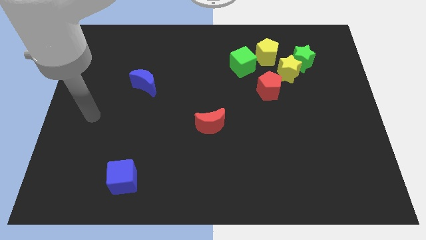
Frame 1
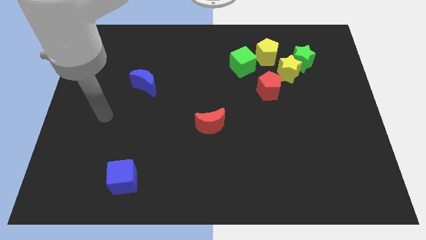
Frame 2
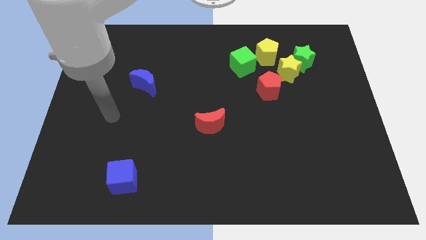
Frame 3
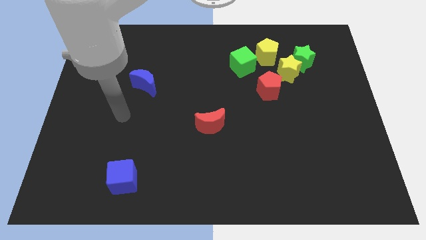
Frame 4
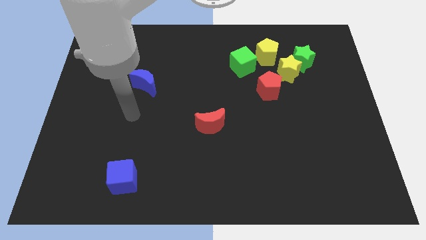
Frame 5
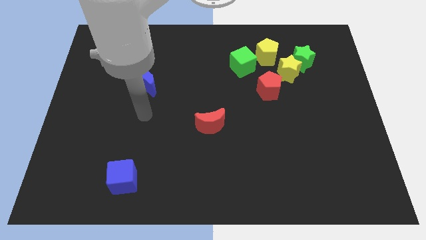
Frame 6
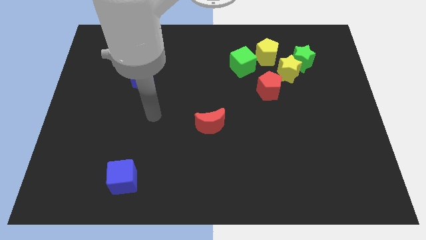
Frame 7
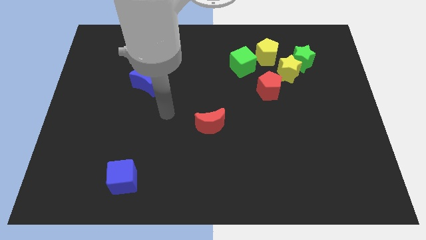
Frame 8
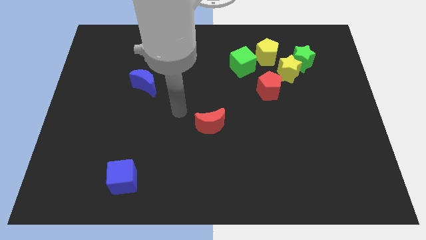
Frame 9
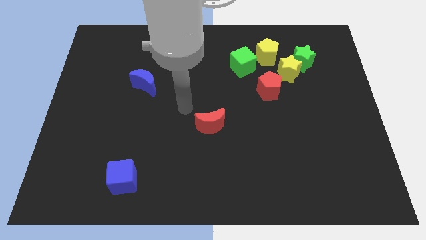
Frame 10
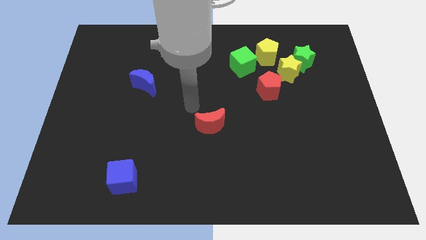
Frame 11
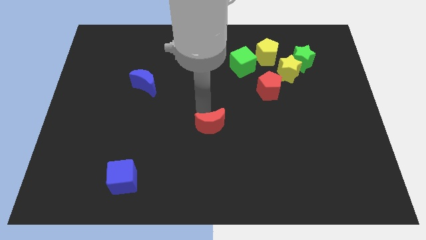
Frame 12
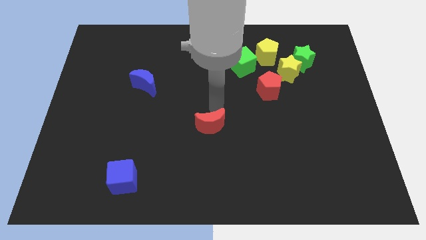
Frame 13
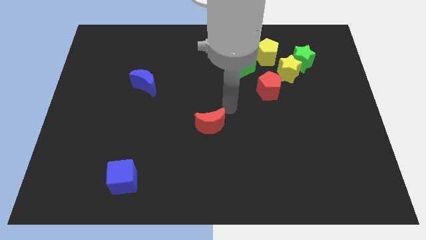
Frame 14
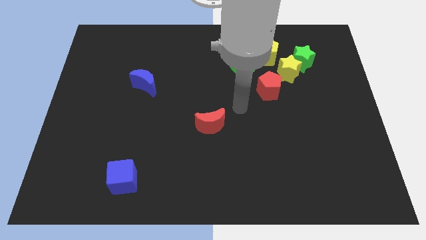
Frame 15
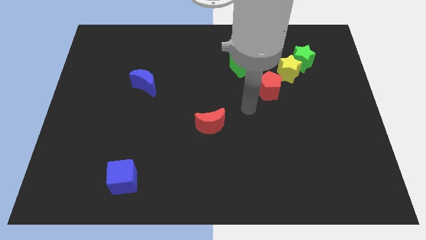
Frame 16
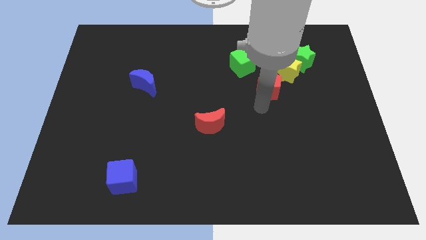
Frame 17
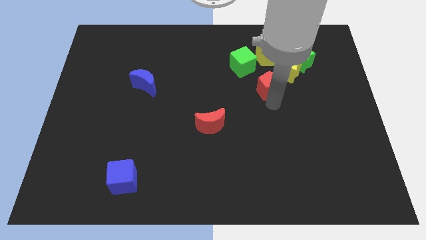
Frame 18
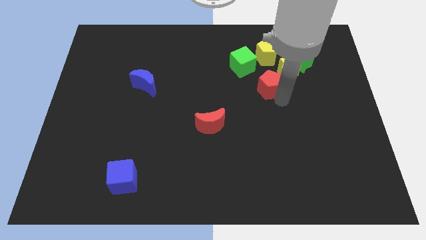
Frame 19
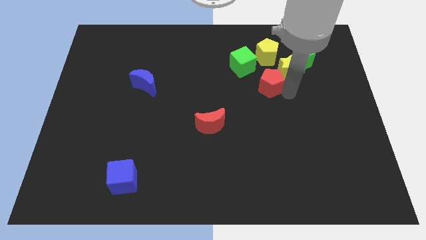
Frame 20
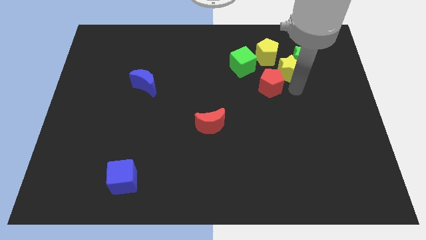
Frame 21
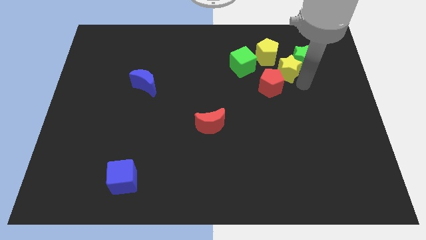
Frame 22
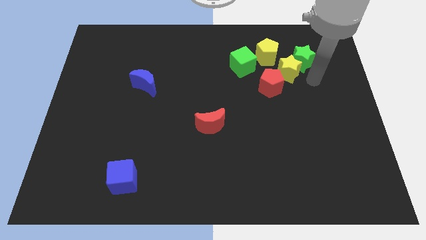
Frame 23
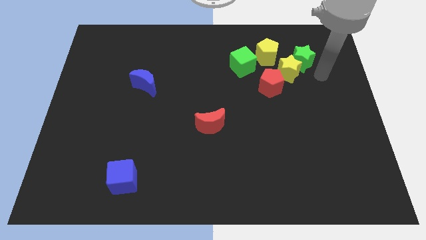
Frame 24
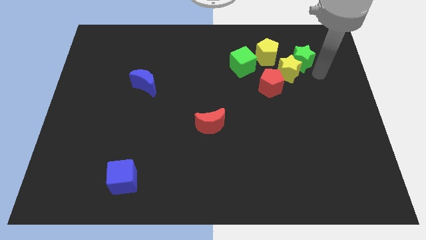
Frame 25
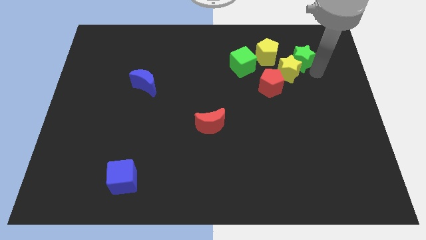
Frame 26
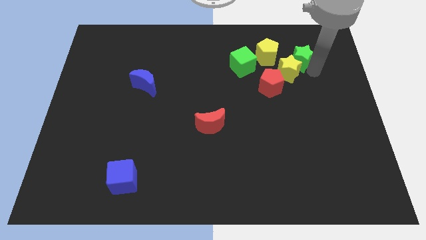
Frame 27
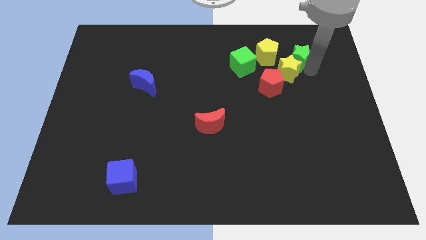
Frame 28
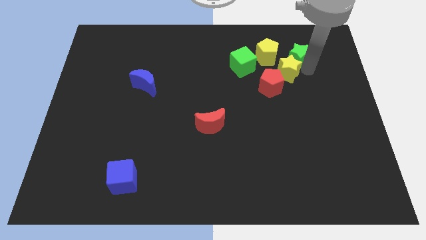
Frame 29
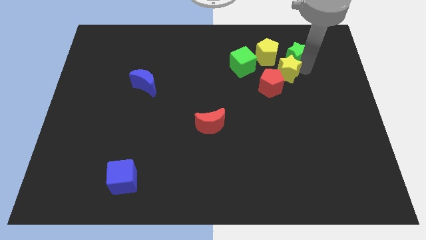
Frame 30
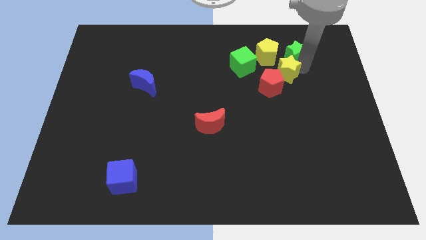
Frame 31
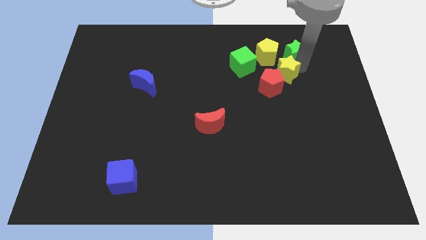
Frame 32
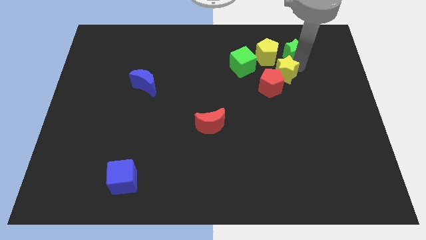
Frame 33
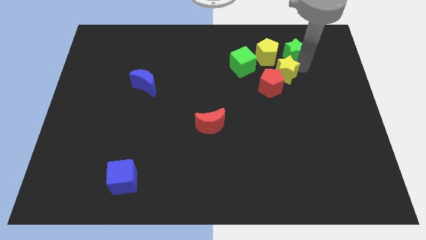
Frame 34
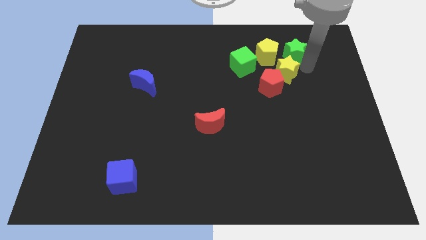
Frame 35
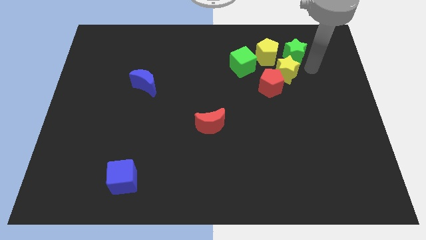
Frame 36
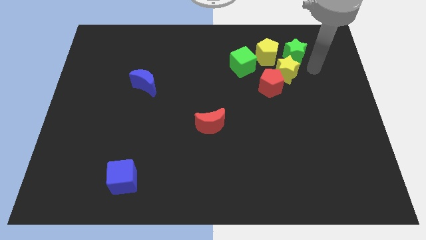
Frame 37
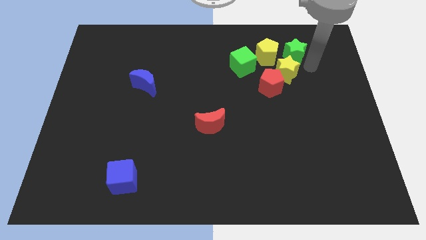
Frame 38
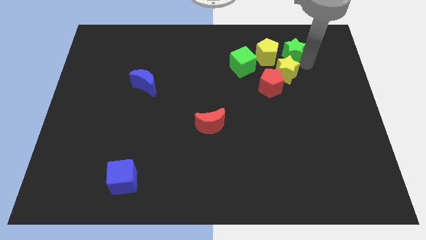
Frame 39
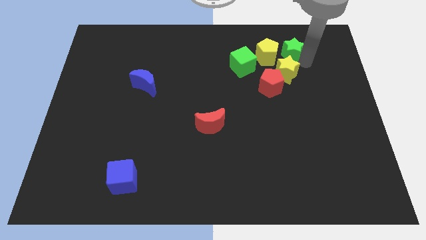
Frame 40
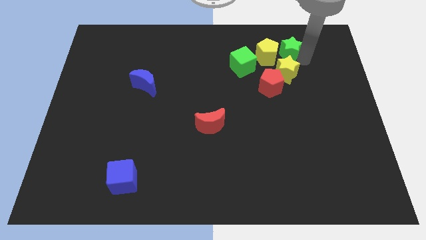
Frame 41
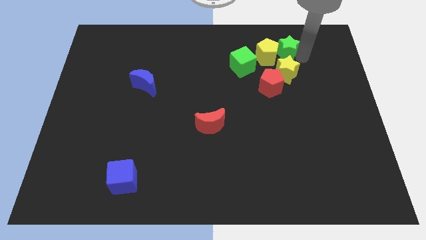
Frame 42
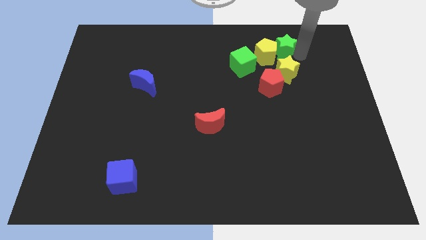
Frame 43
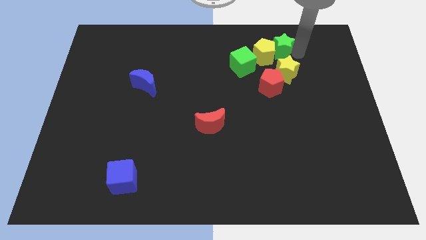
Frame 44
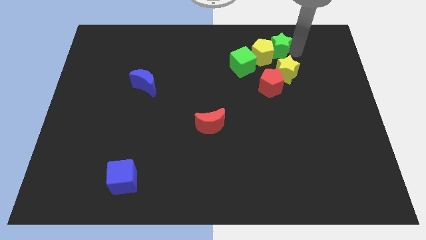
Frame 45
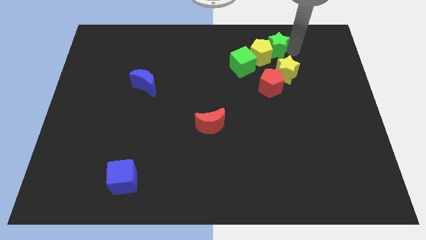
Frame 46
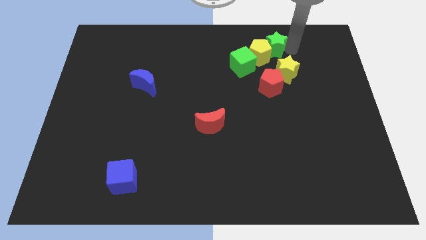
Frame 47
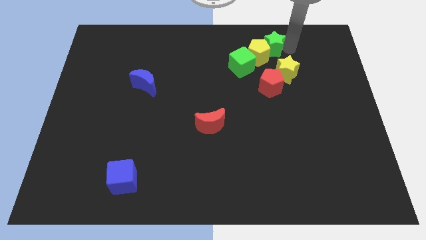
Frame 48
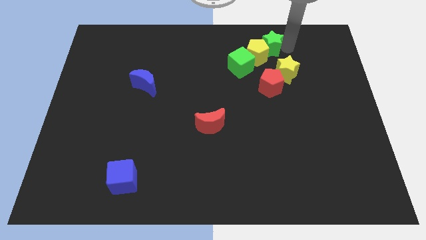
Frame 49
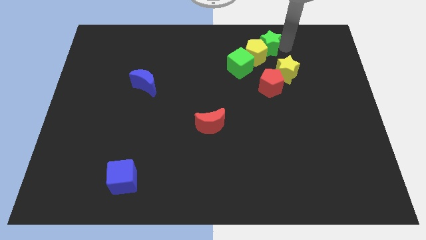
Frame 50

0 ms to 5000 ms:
slightly push the green star to the left

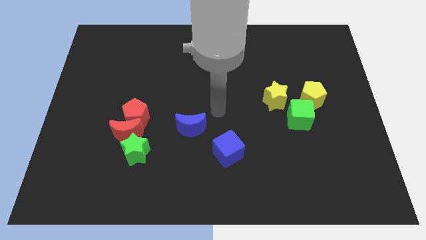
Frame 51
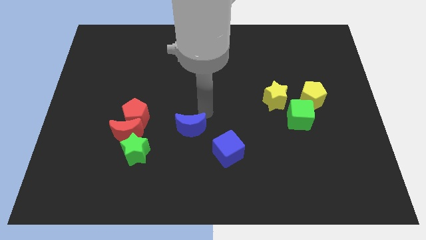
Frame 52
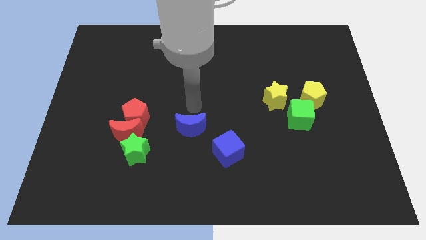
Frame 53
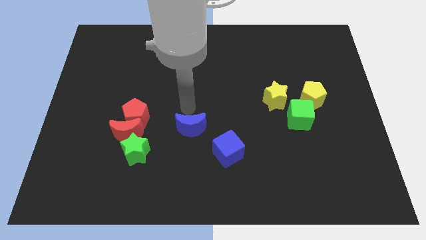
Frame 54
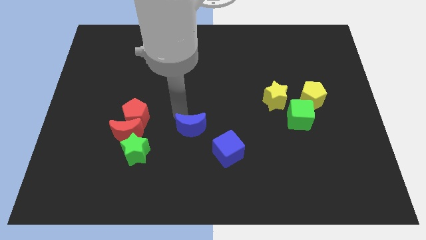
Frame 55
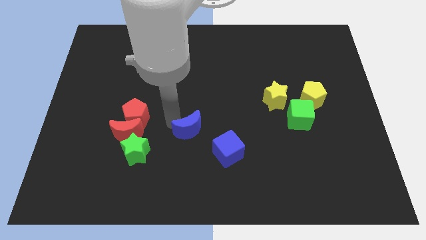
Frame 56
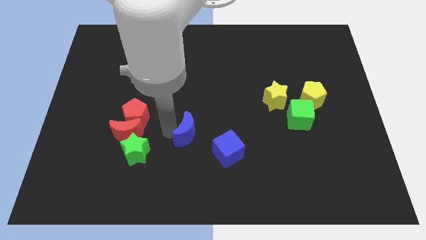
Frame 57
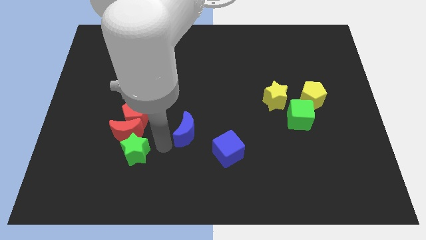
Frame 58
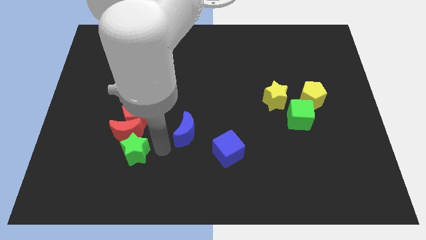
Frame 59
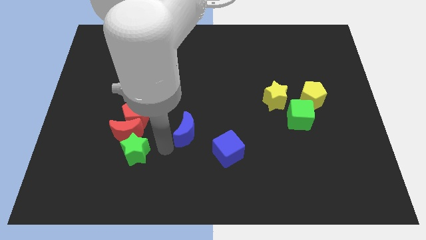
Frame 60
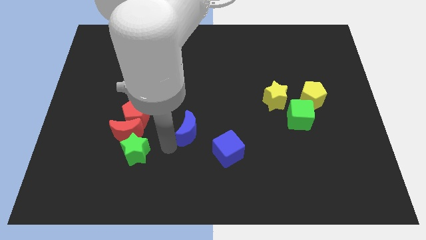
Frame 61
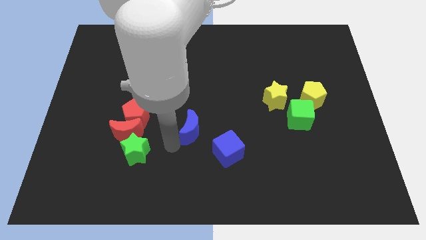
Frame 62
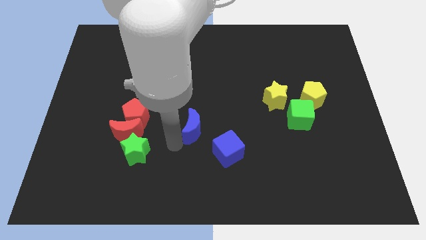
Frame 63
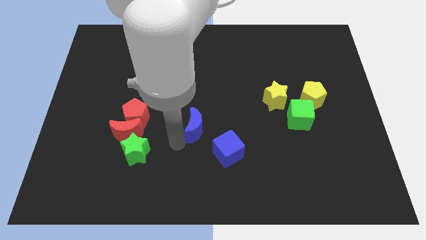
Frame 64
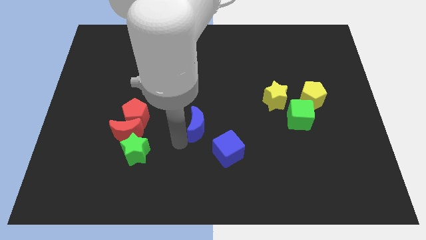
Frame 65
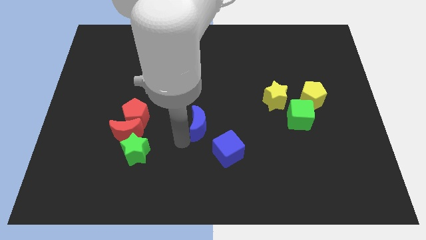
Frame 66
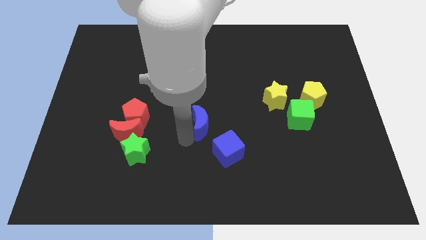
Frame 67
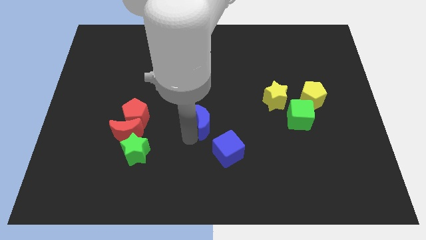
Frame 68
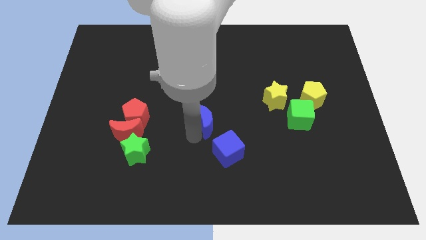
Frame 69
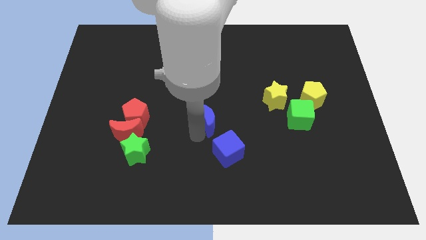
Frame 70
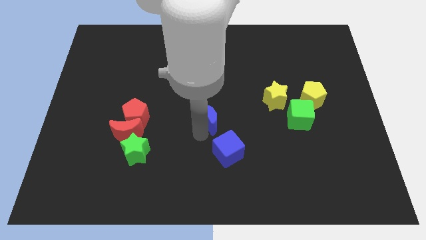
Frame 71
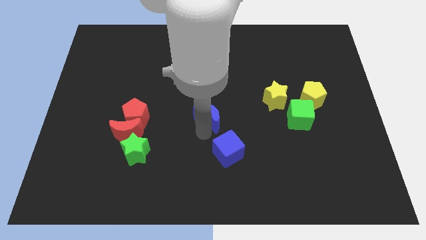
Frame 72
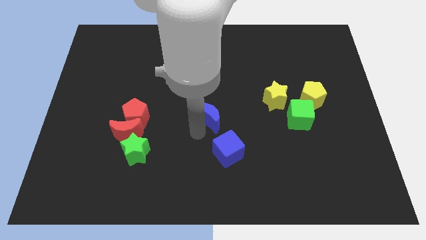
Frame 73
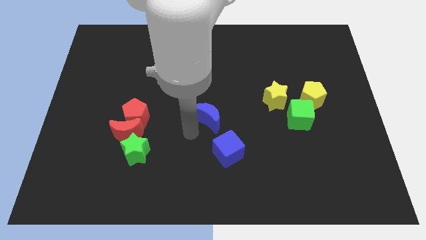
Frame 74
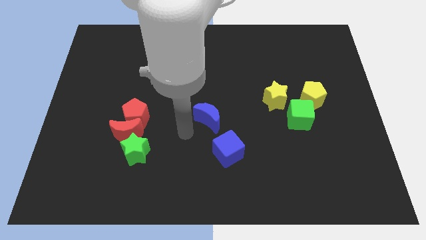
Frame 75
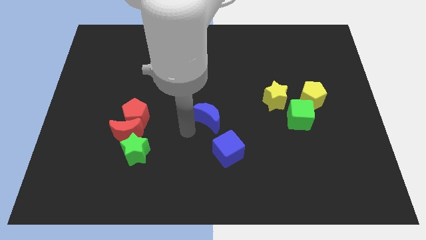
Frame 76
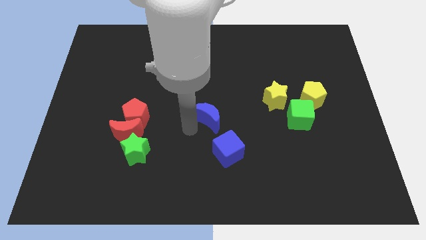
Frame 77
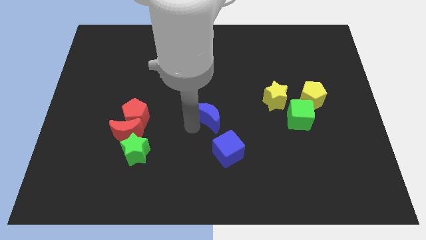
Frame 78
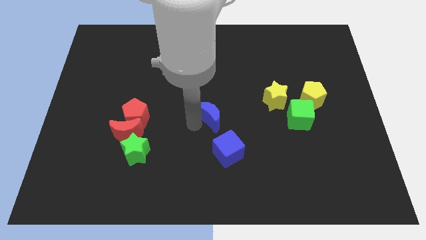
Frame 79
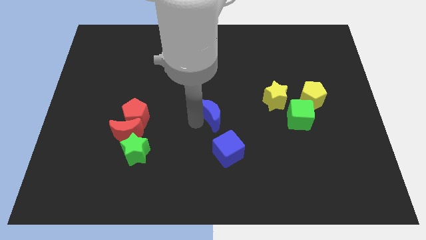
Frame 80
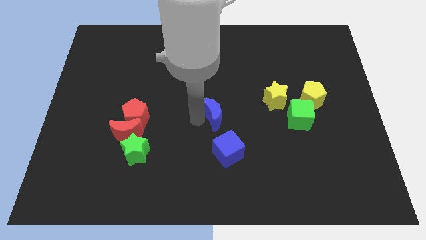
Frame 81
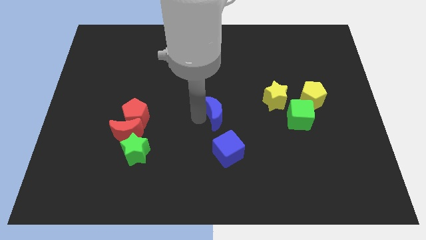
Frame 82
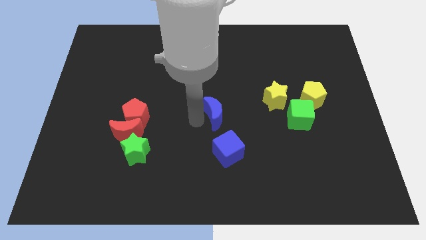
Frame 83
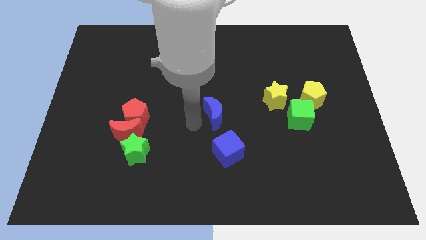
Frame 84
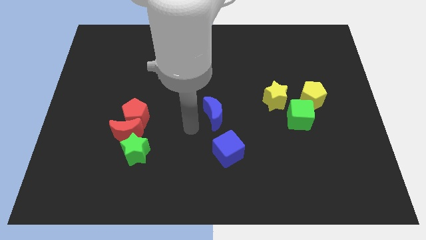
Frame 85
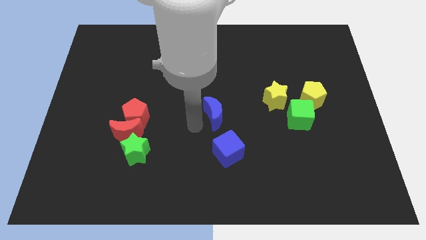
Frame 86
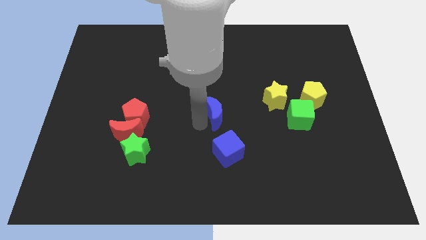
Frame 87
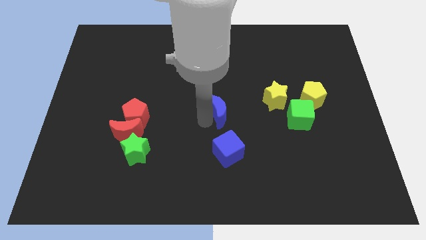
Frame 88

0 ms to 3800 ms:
move the blue moon a little bit up and right
